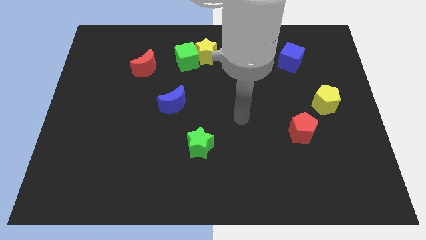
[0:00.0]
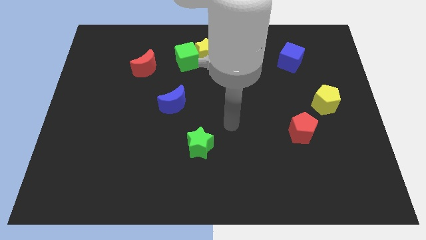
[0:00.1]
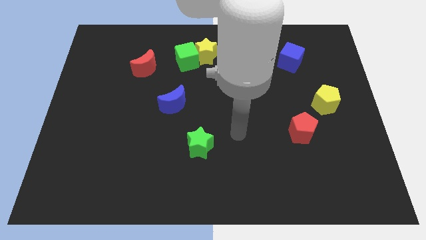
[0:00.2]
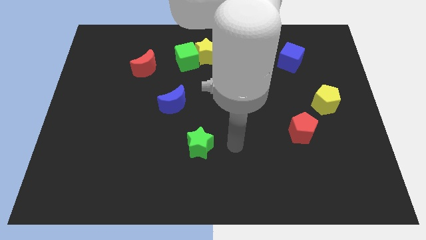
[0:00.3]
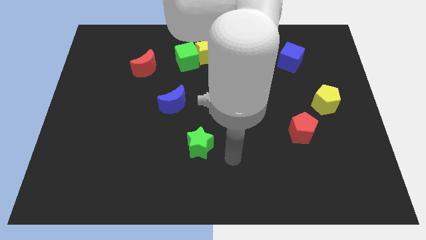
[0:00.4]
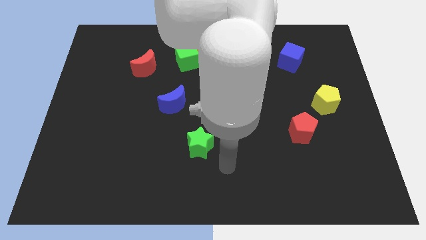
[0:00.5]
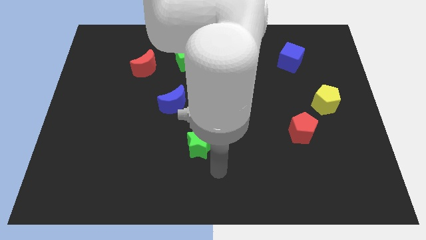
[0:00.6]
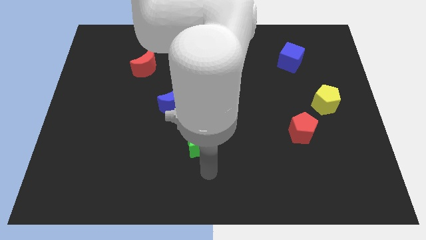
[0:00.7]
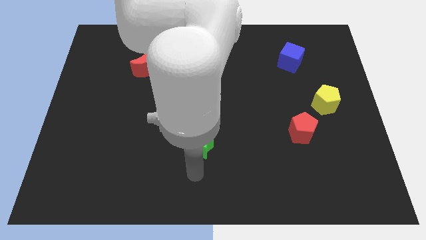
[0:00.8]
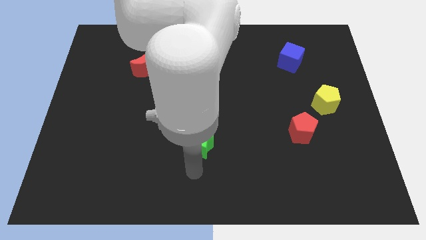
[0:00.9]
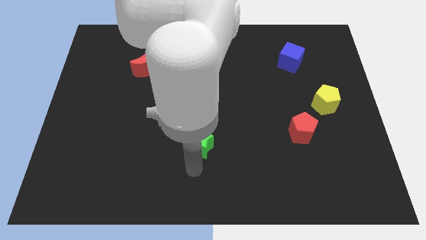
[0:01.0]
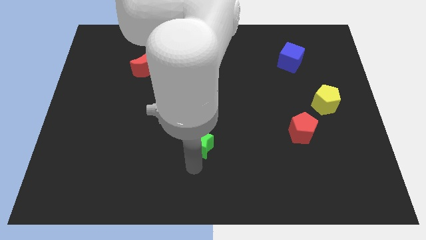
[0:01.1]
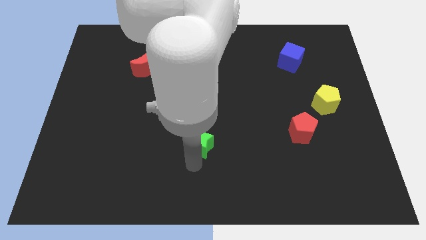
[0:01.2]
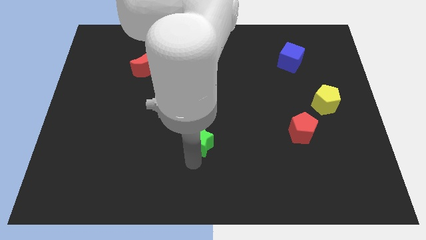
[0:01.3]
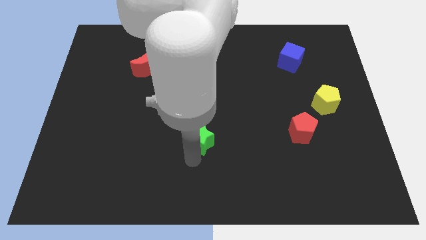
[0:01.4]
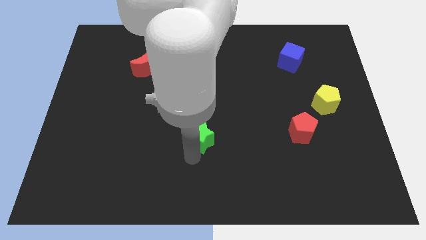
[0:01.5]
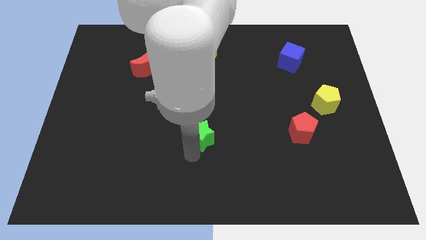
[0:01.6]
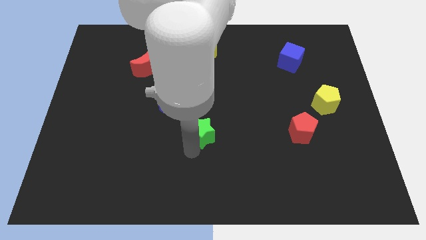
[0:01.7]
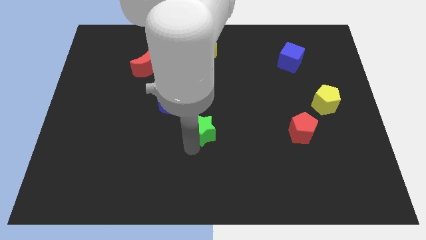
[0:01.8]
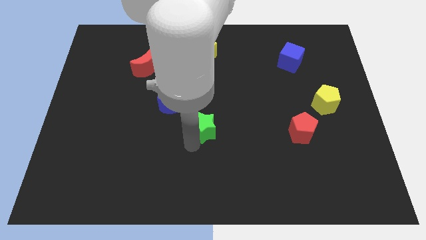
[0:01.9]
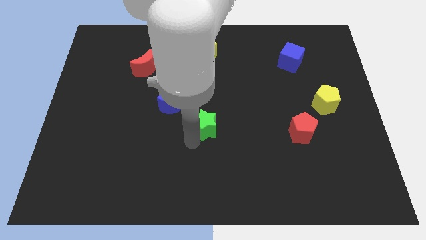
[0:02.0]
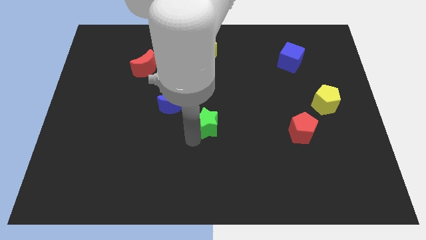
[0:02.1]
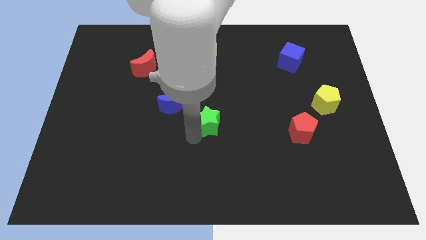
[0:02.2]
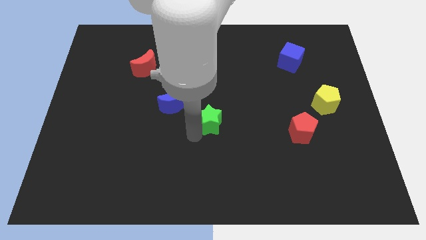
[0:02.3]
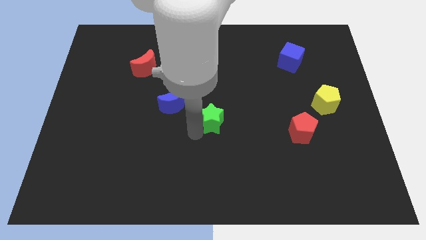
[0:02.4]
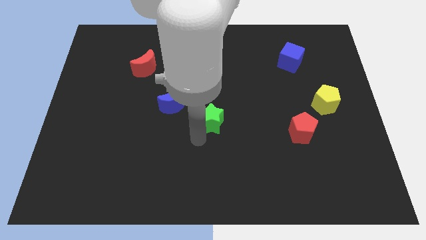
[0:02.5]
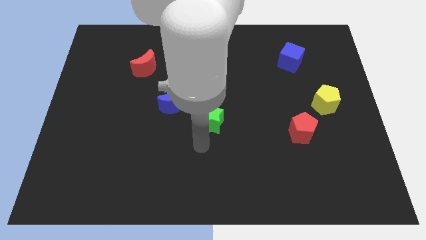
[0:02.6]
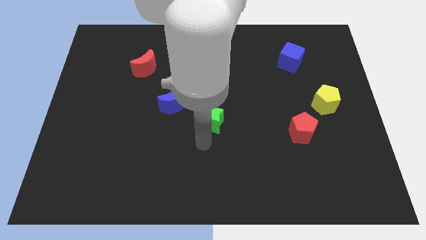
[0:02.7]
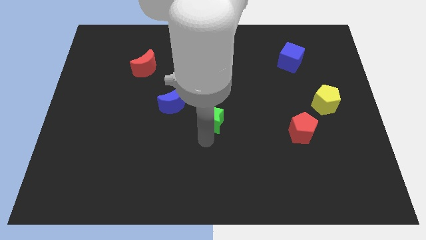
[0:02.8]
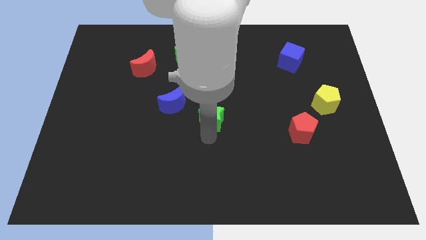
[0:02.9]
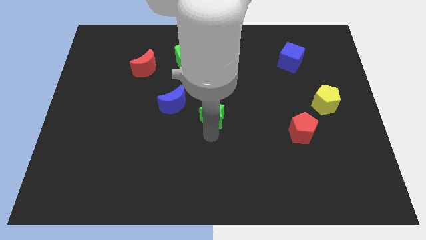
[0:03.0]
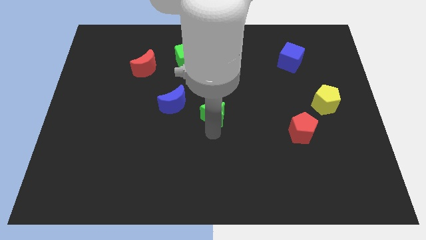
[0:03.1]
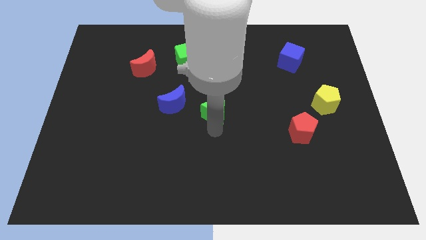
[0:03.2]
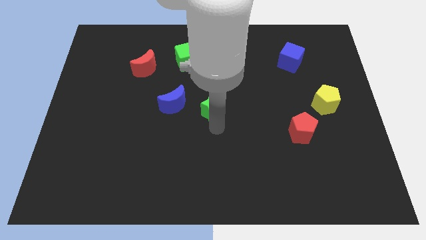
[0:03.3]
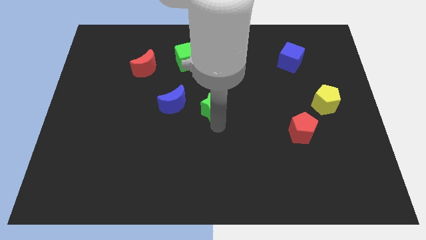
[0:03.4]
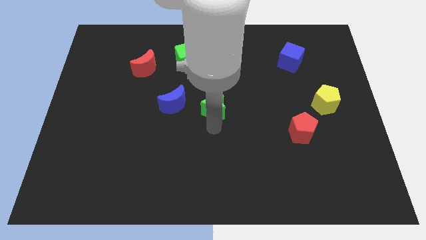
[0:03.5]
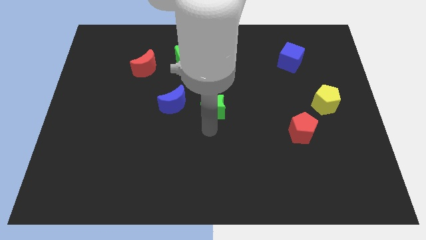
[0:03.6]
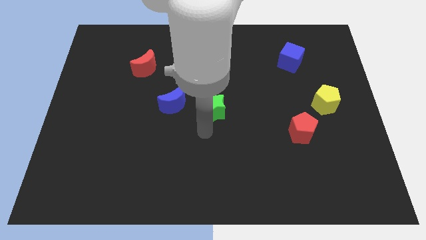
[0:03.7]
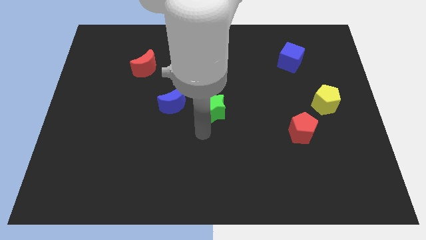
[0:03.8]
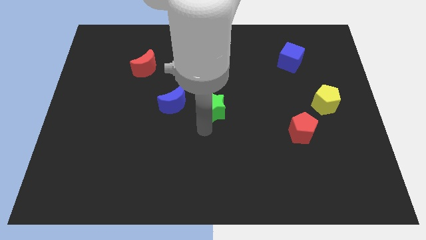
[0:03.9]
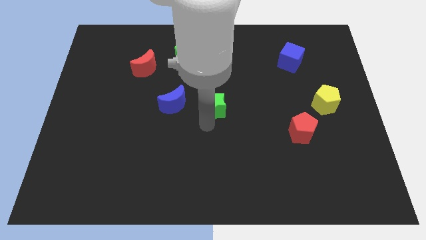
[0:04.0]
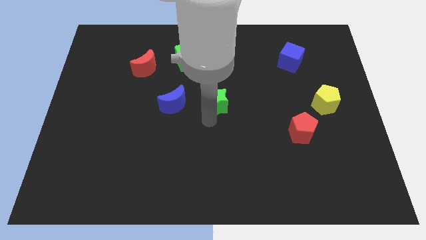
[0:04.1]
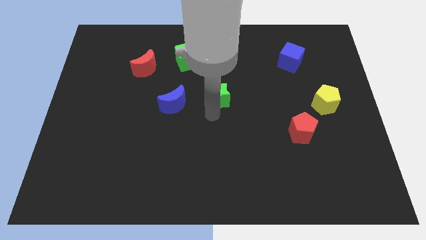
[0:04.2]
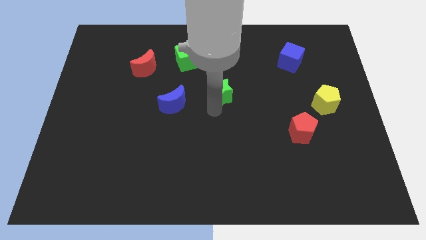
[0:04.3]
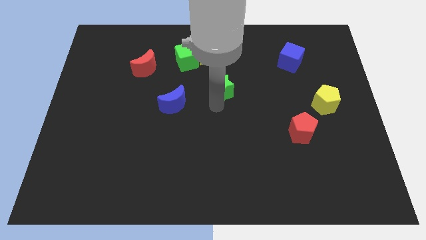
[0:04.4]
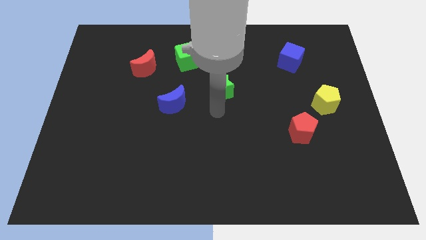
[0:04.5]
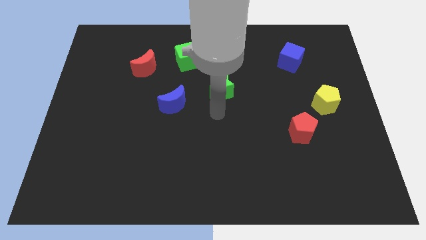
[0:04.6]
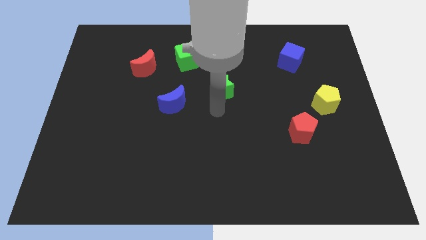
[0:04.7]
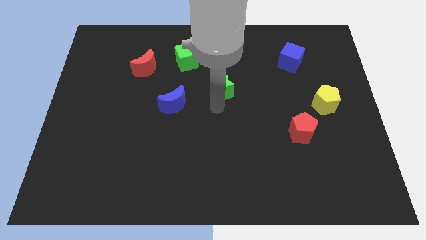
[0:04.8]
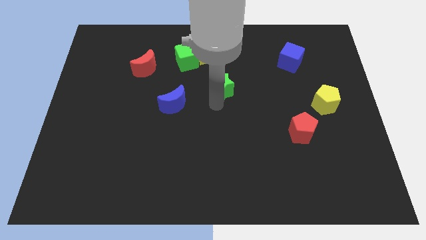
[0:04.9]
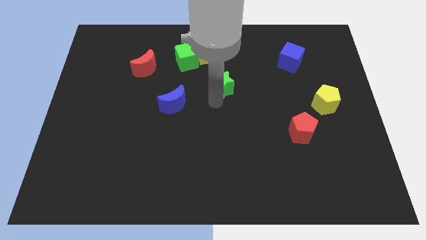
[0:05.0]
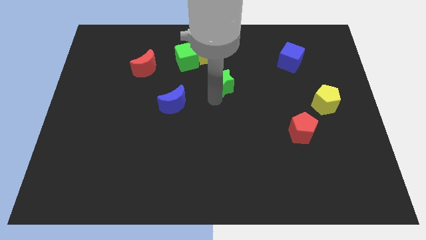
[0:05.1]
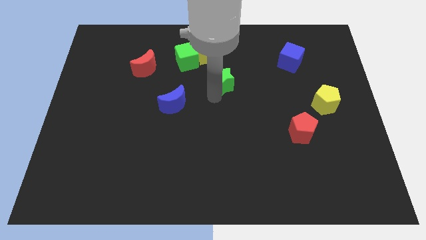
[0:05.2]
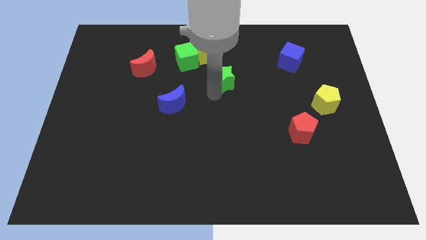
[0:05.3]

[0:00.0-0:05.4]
put the green star to the bottom right side of the yellow star
